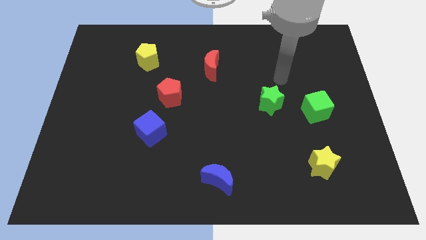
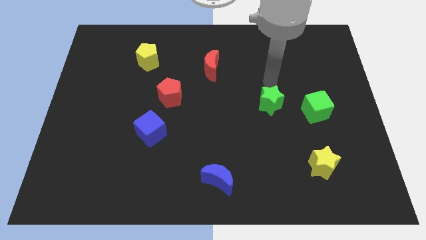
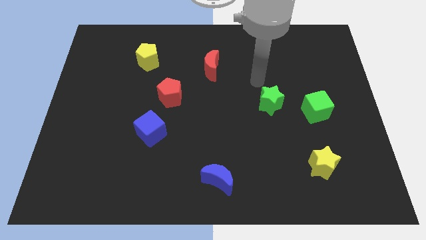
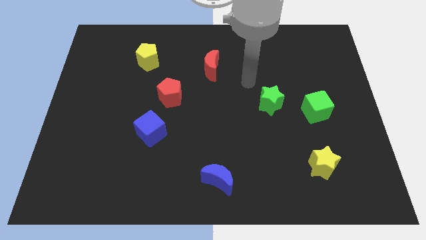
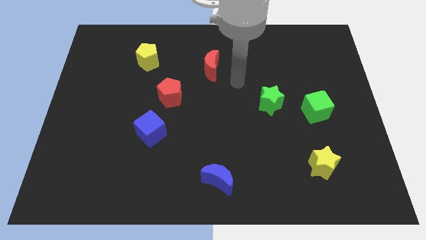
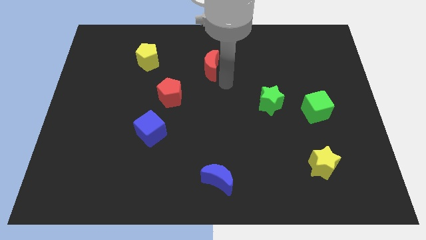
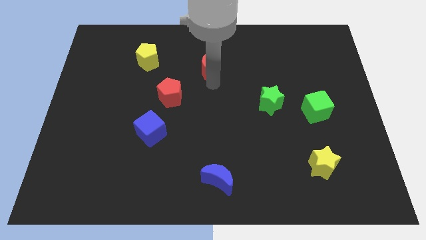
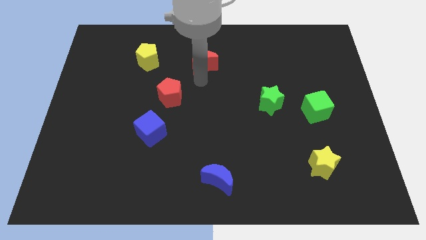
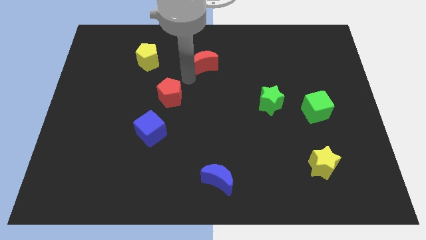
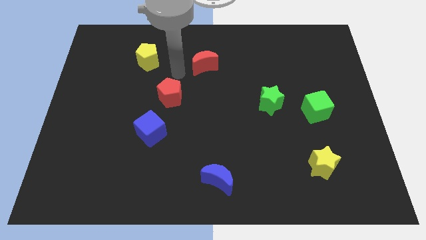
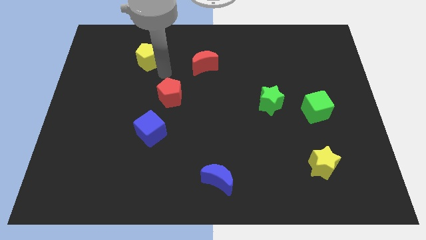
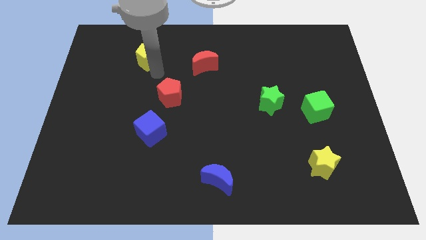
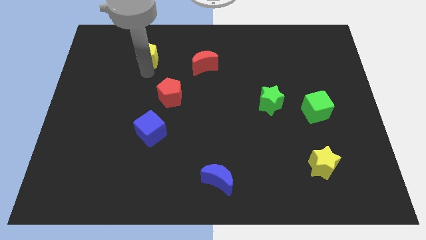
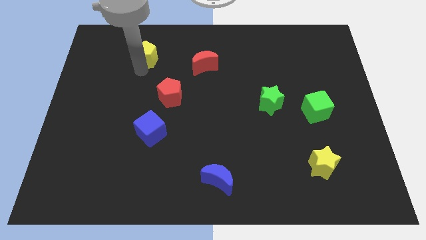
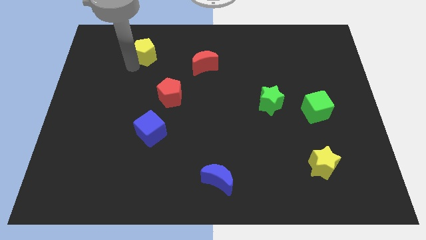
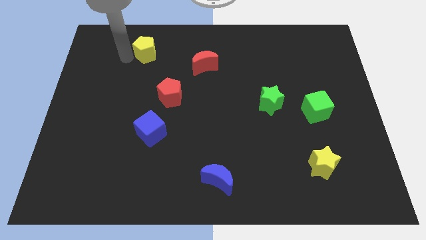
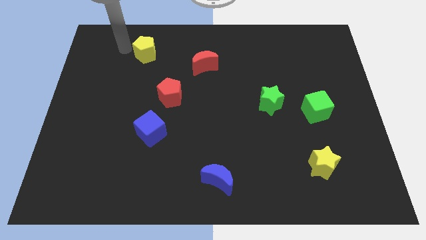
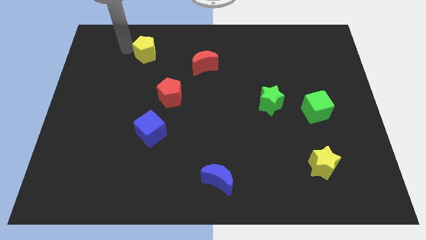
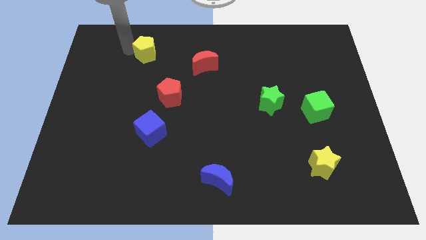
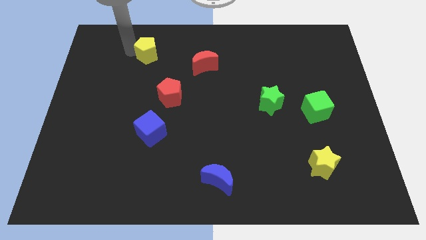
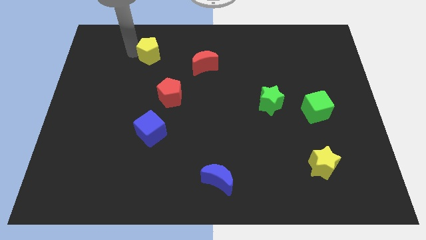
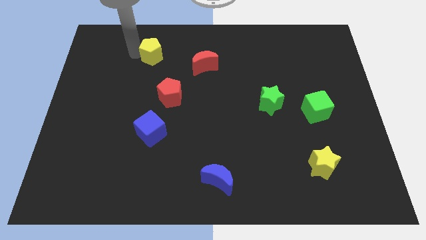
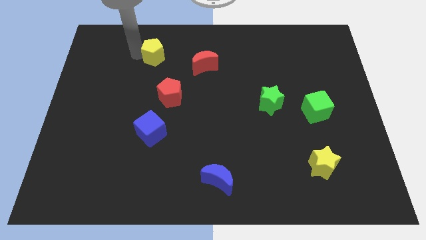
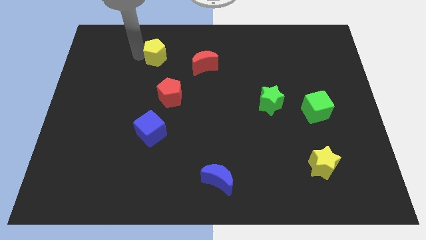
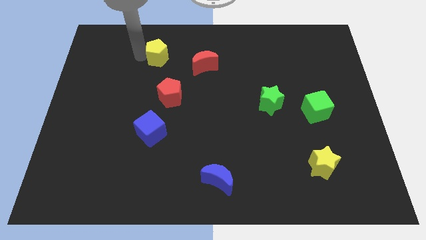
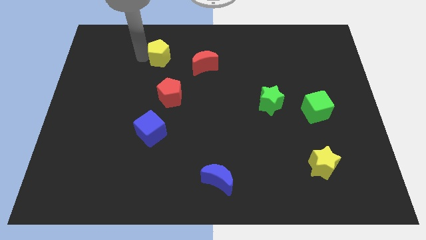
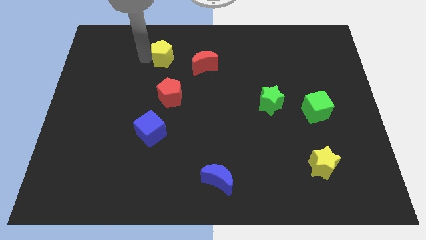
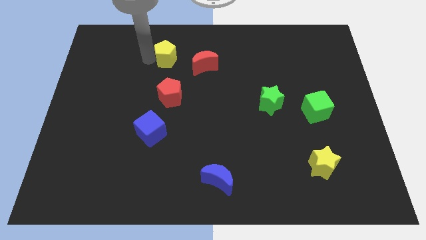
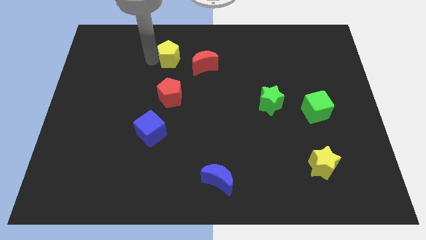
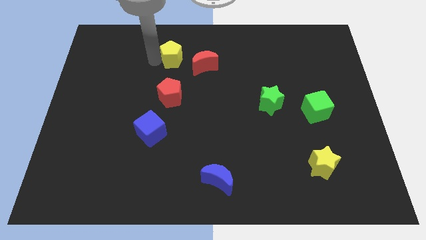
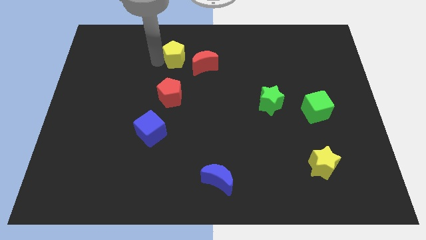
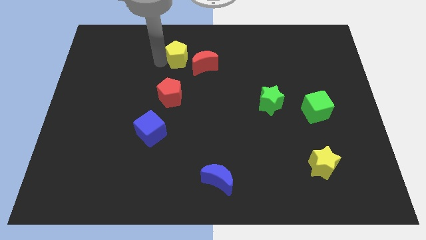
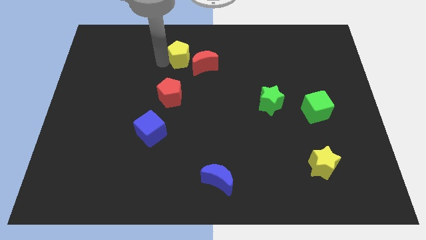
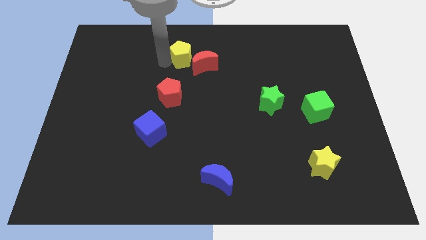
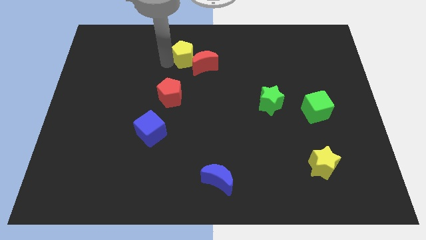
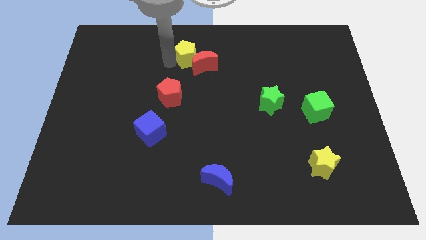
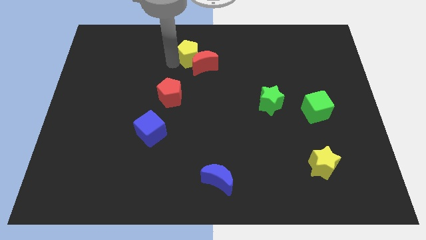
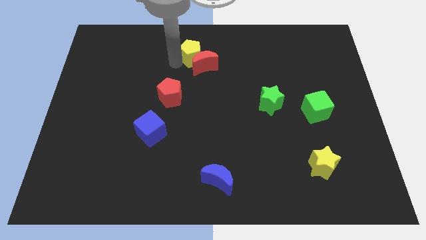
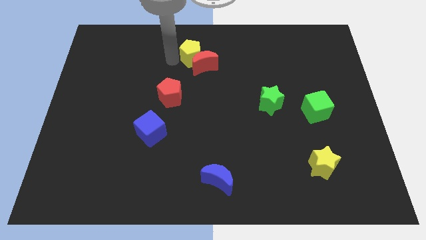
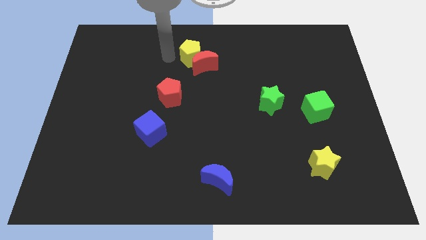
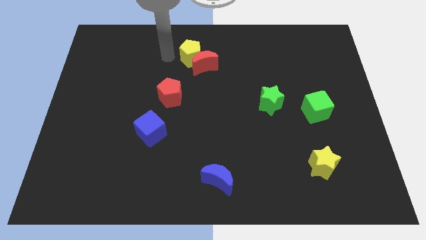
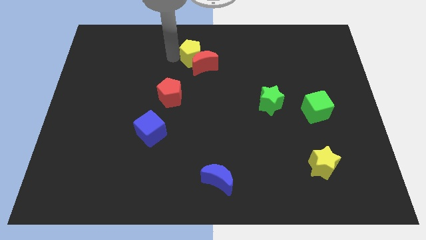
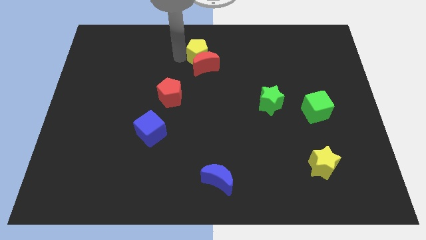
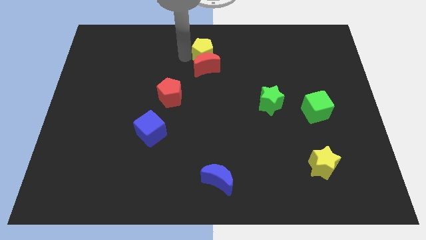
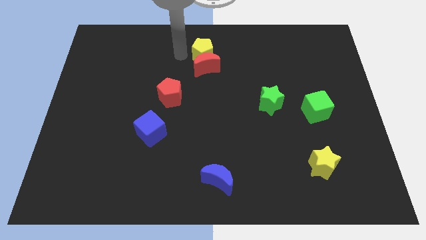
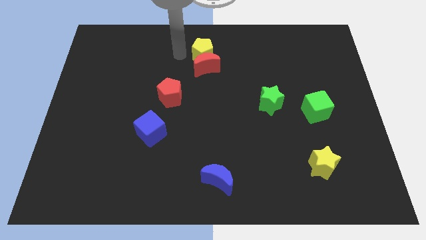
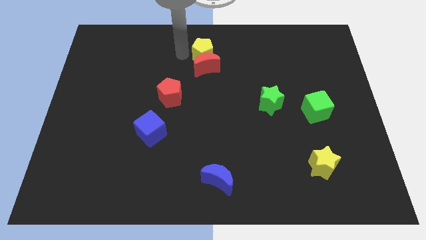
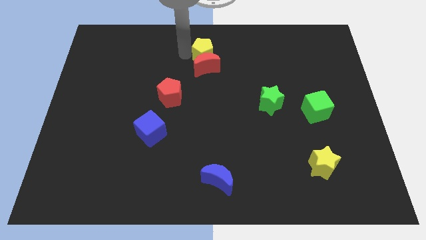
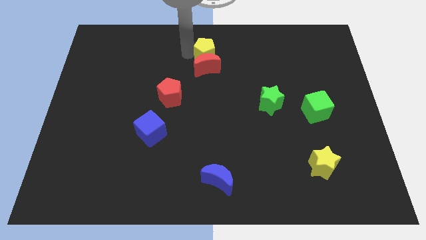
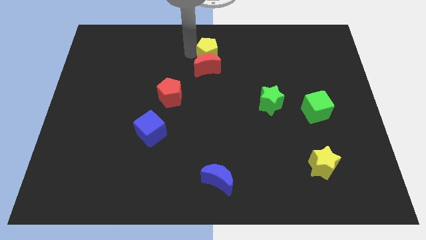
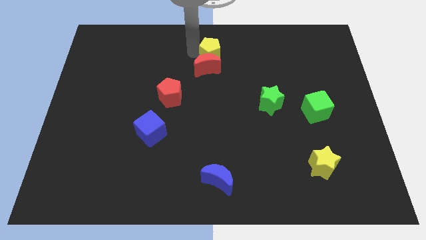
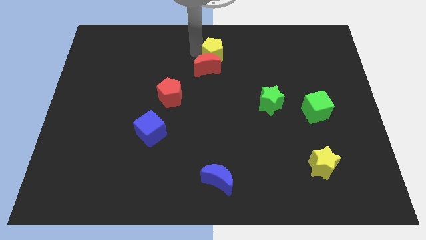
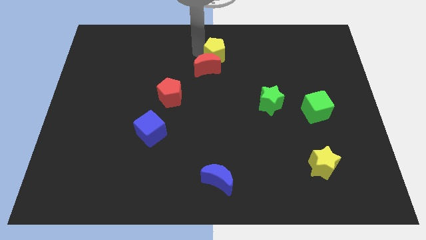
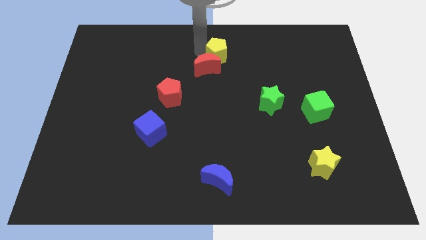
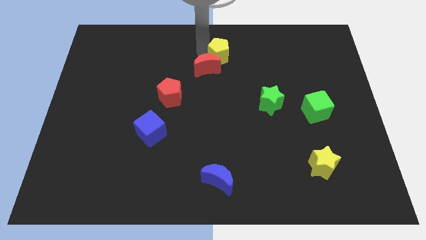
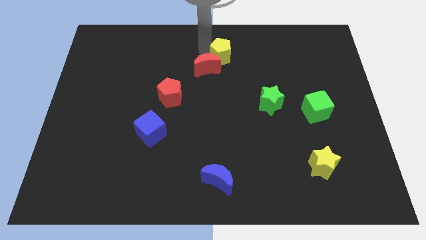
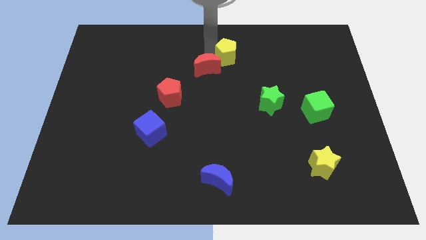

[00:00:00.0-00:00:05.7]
push the yellow pentagon right

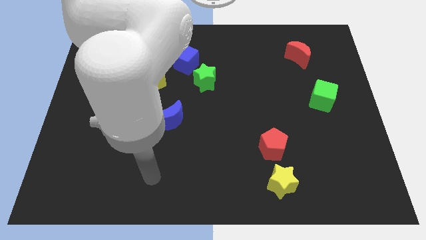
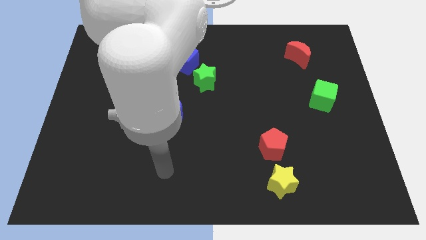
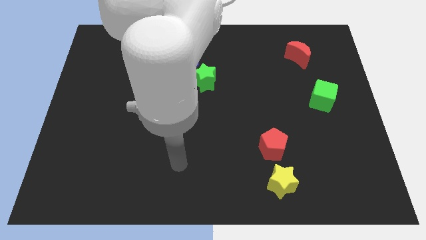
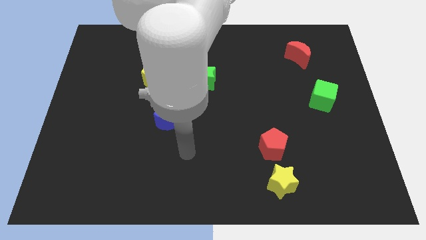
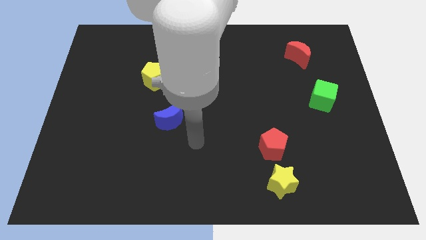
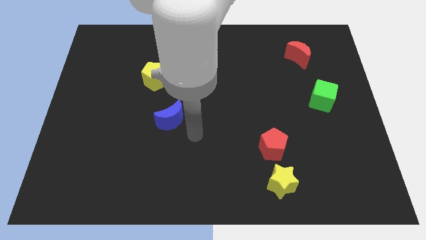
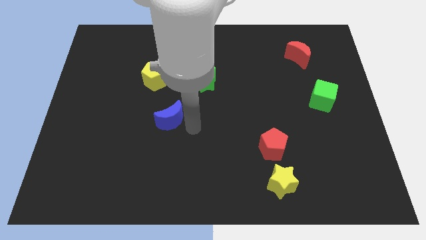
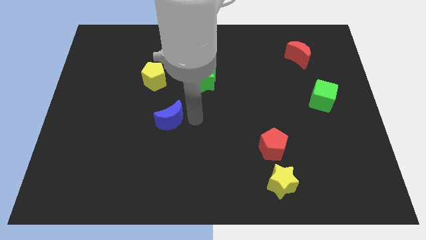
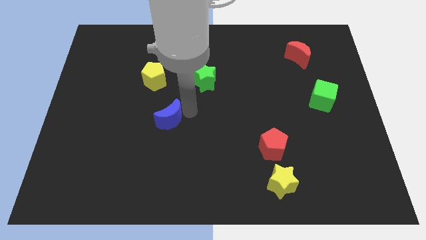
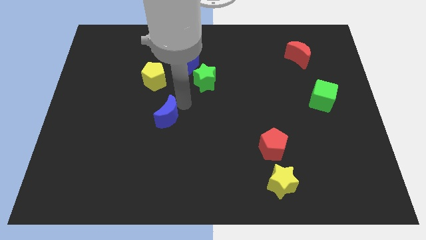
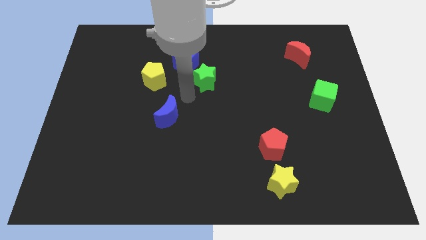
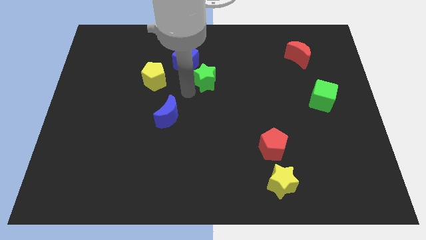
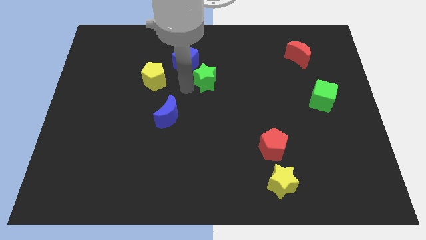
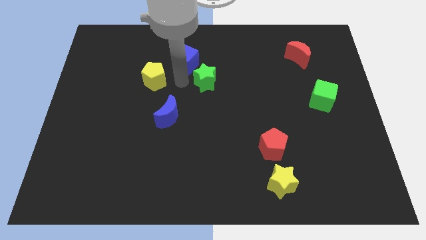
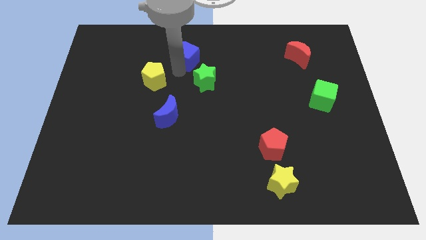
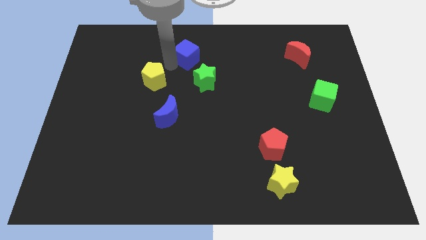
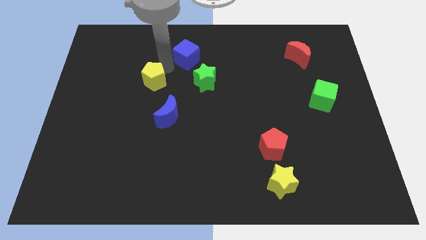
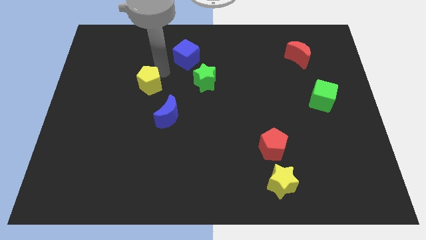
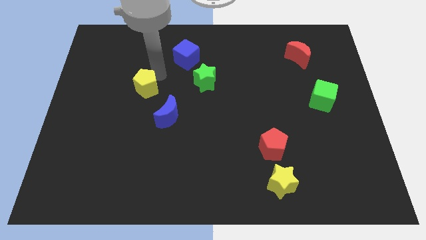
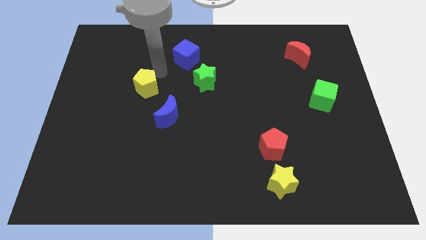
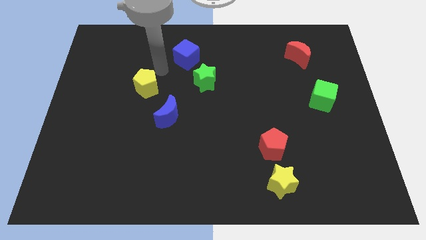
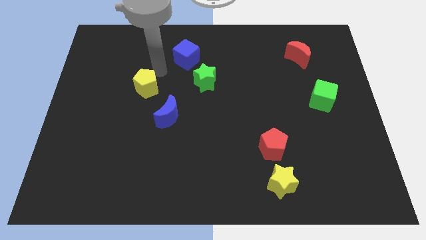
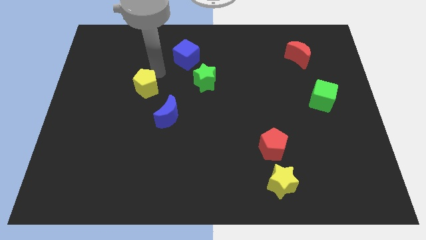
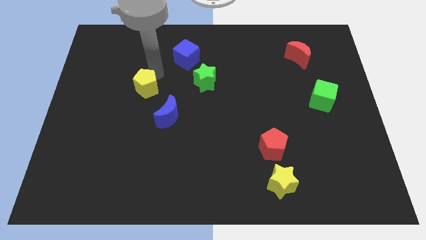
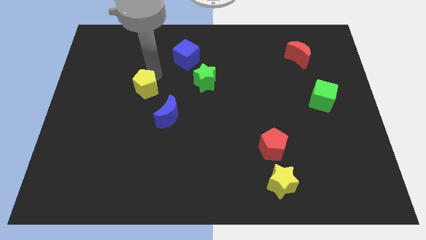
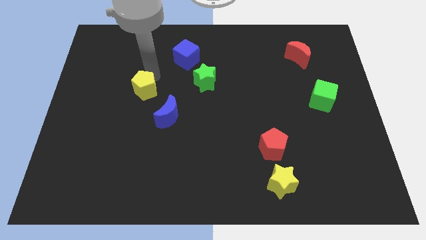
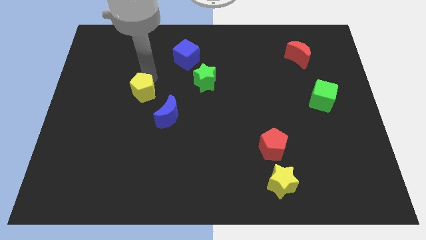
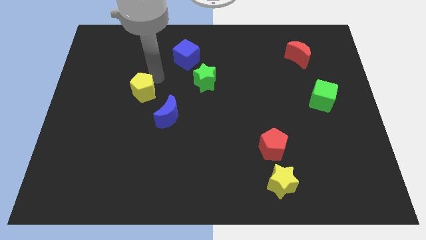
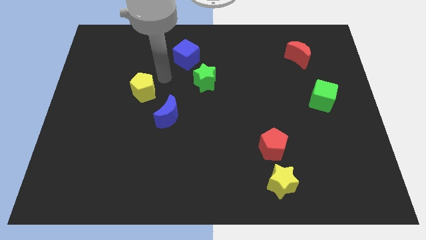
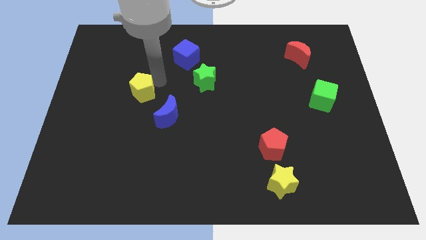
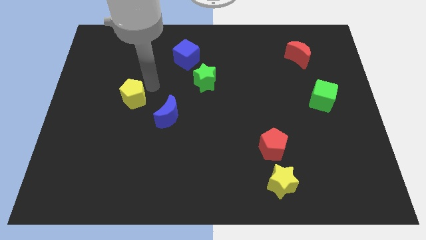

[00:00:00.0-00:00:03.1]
move the yellow pentagon down and then left somewhat
